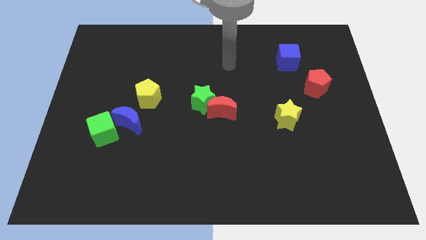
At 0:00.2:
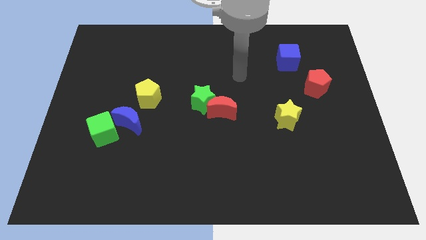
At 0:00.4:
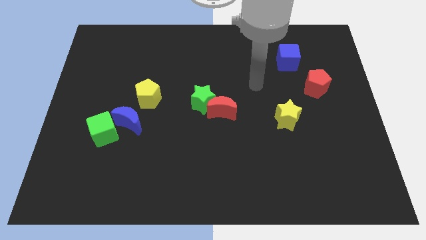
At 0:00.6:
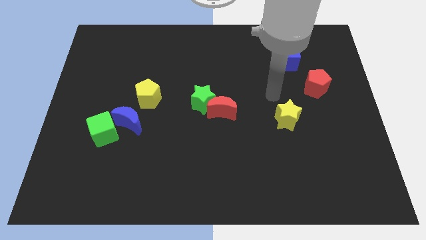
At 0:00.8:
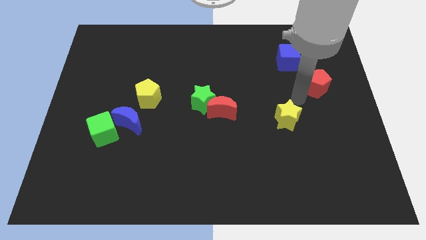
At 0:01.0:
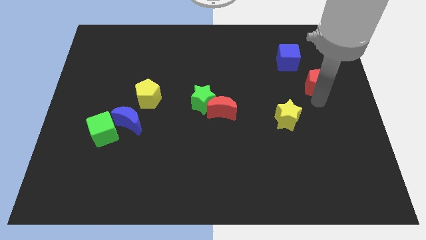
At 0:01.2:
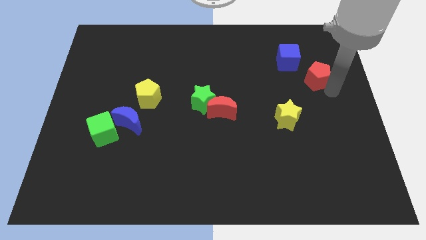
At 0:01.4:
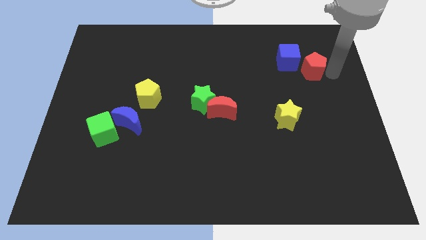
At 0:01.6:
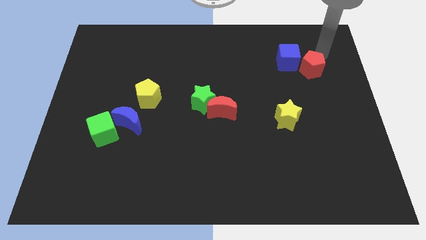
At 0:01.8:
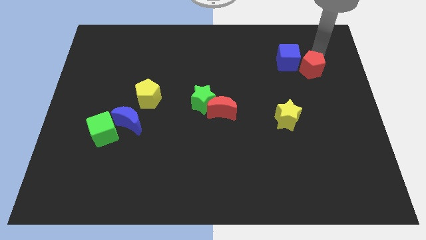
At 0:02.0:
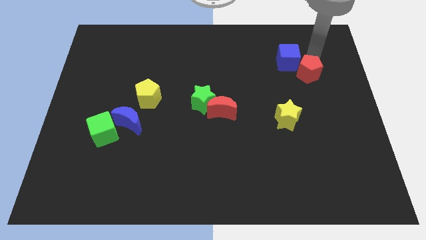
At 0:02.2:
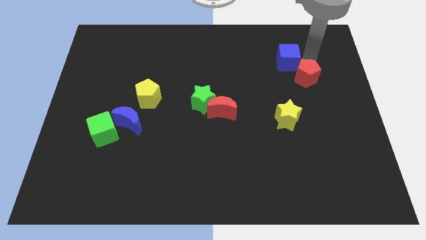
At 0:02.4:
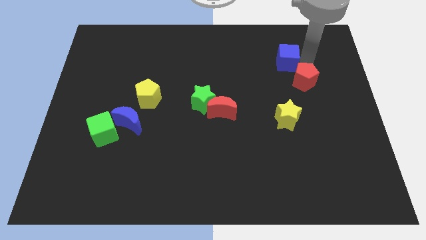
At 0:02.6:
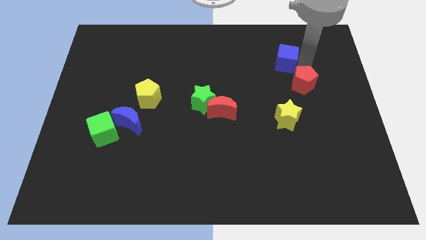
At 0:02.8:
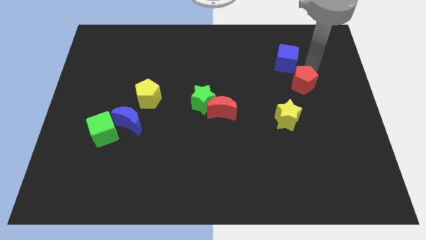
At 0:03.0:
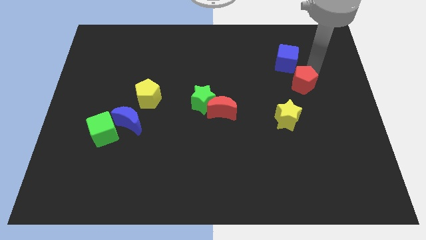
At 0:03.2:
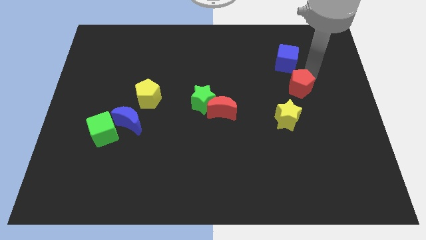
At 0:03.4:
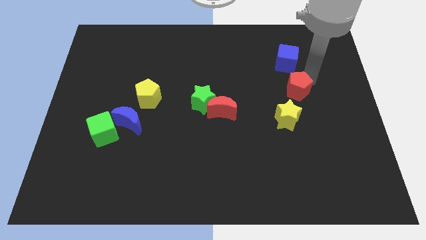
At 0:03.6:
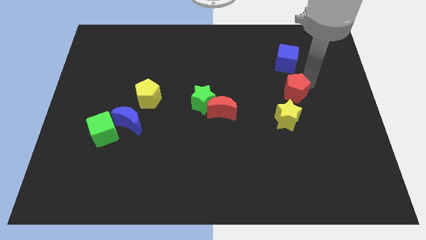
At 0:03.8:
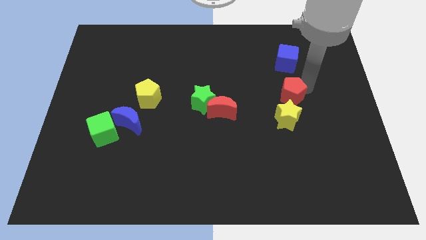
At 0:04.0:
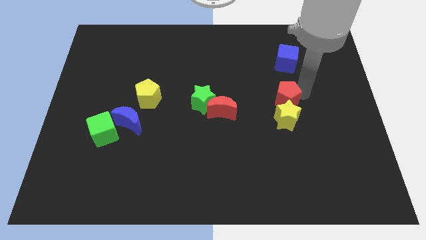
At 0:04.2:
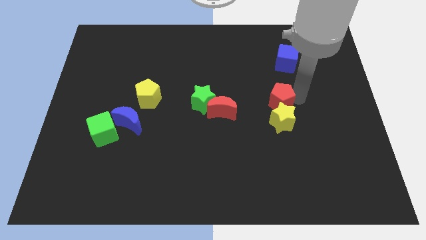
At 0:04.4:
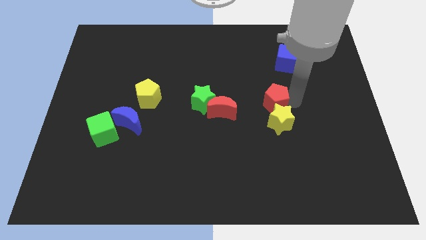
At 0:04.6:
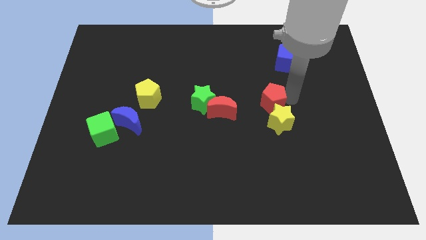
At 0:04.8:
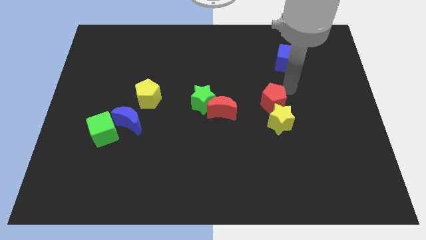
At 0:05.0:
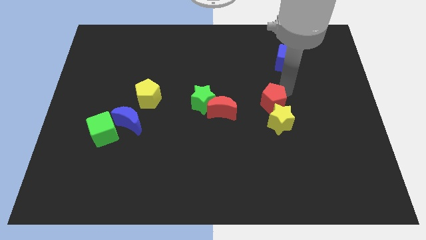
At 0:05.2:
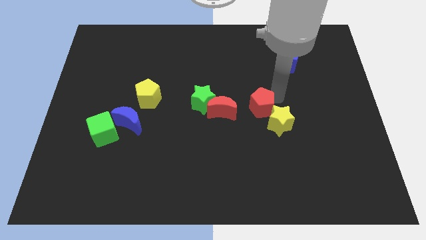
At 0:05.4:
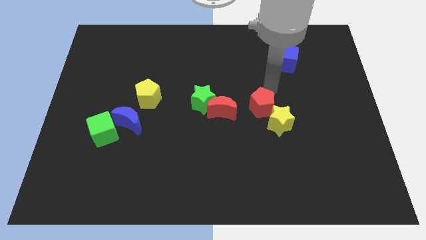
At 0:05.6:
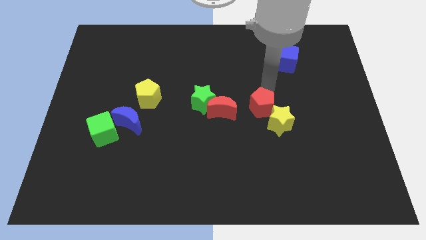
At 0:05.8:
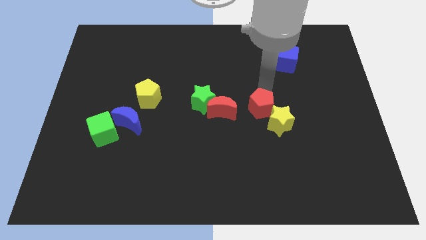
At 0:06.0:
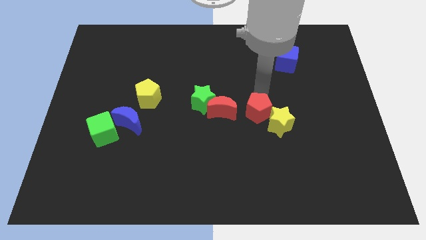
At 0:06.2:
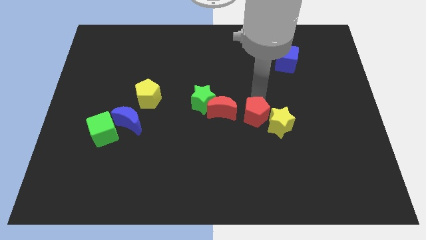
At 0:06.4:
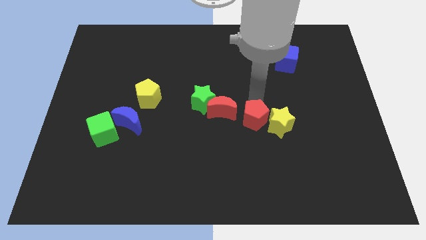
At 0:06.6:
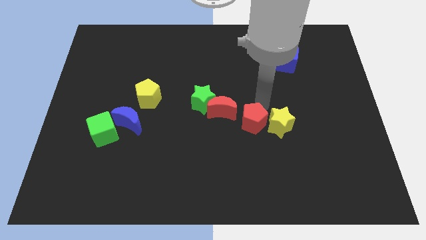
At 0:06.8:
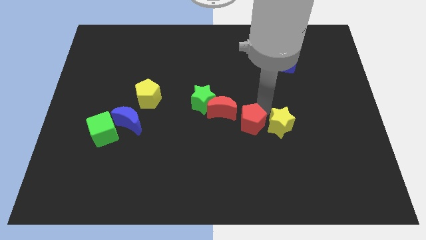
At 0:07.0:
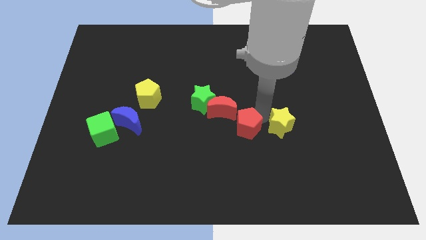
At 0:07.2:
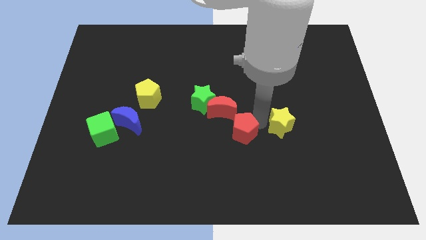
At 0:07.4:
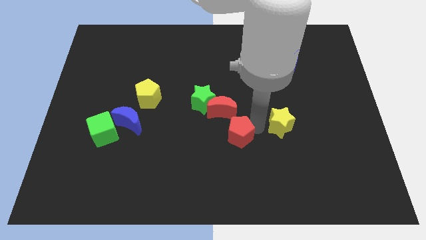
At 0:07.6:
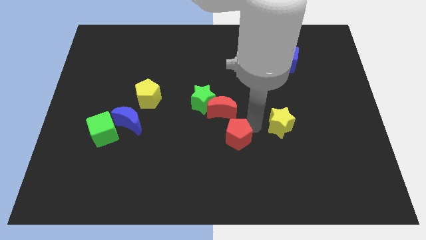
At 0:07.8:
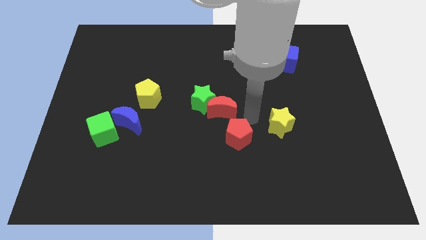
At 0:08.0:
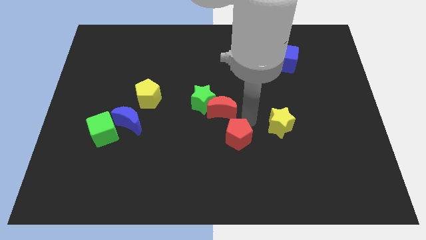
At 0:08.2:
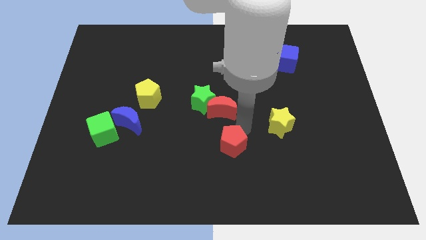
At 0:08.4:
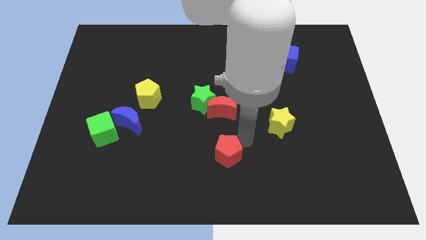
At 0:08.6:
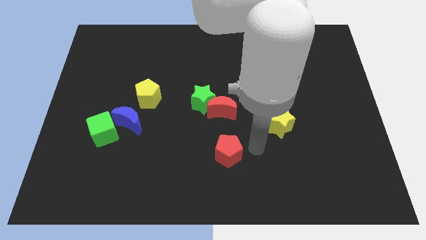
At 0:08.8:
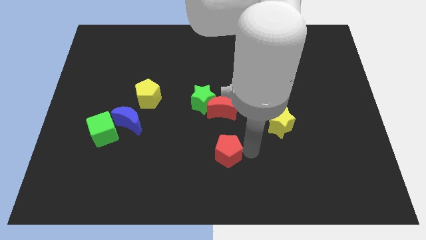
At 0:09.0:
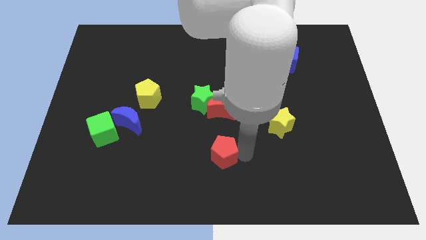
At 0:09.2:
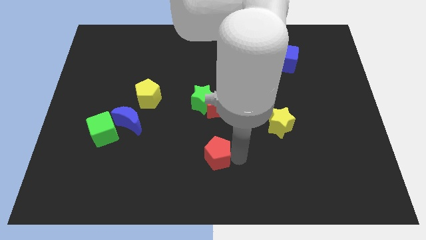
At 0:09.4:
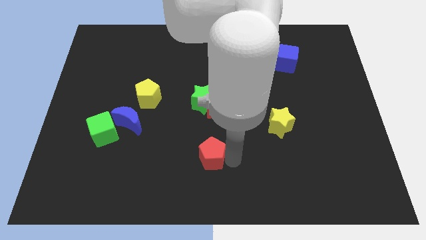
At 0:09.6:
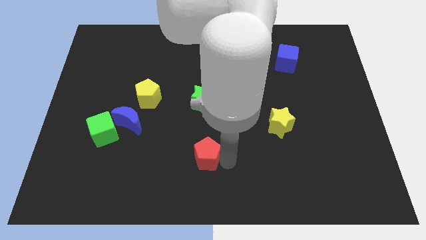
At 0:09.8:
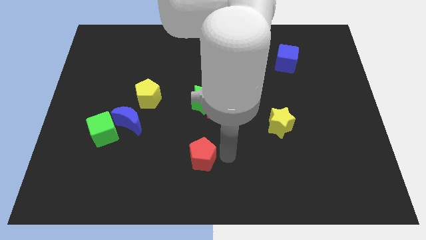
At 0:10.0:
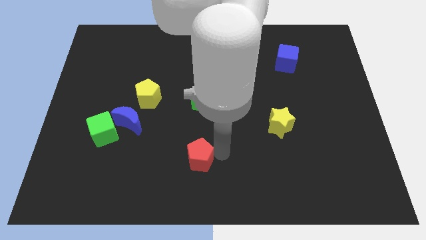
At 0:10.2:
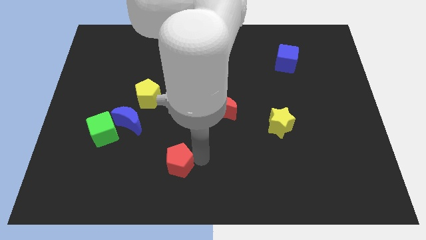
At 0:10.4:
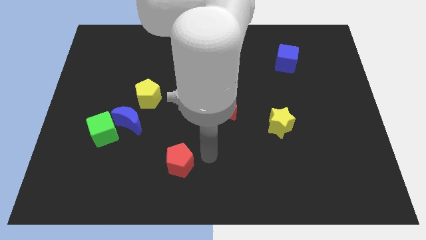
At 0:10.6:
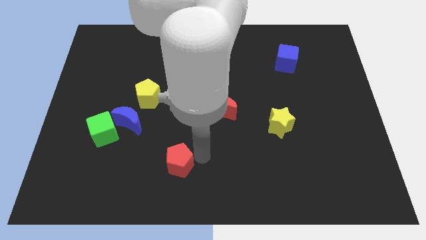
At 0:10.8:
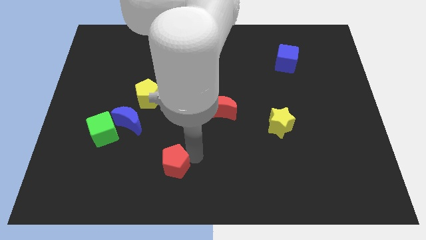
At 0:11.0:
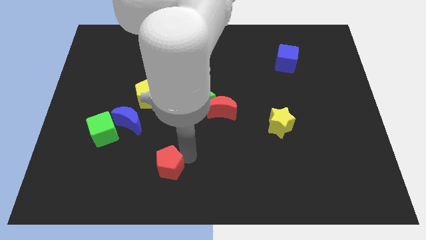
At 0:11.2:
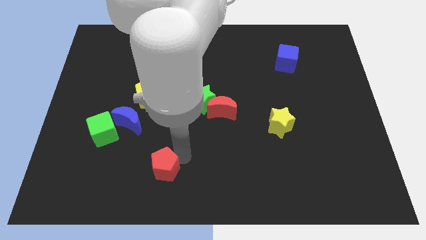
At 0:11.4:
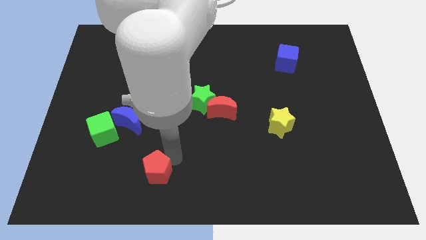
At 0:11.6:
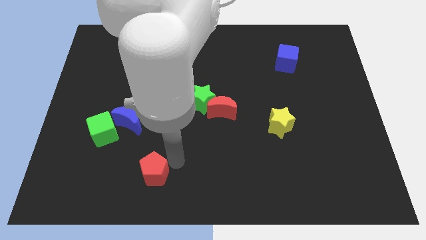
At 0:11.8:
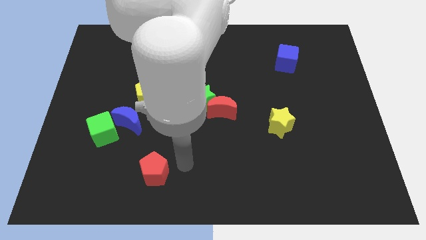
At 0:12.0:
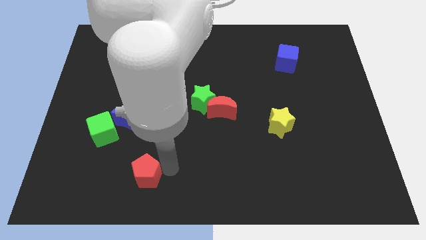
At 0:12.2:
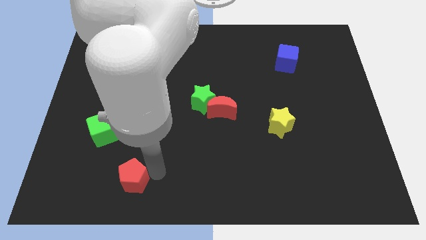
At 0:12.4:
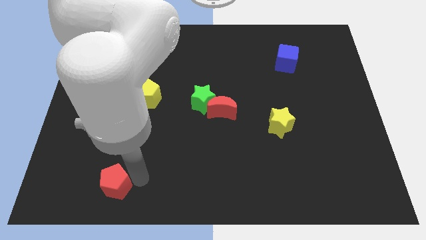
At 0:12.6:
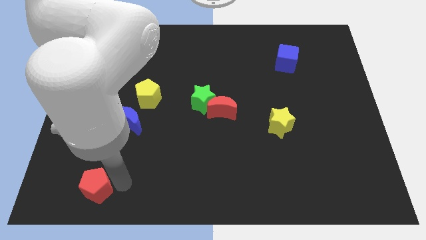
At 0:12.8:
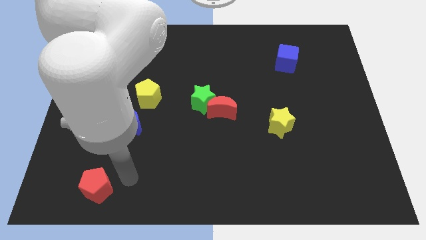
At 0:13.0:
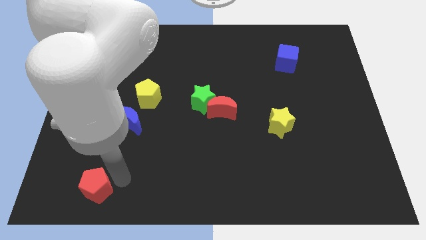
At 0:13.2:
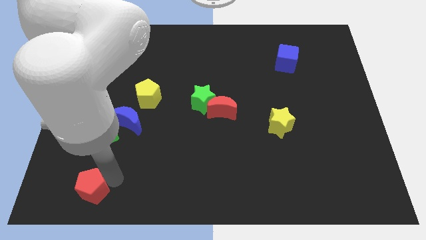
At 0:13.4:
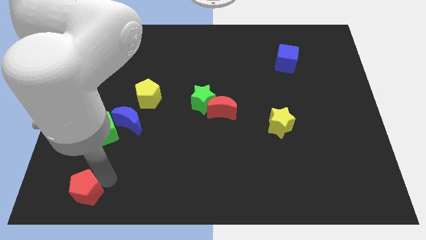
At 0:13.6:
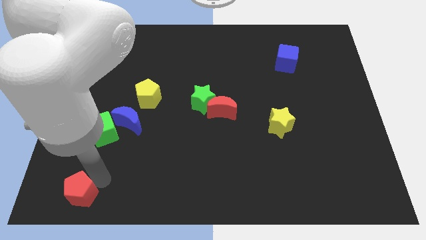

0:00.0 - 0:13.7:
move the red pentagon to the bottom left of the board

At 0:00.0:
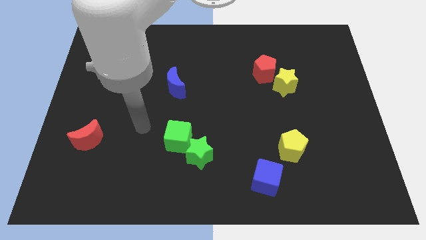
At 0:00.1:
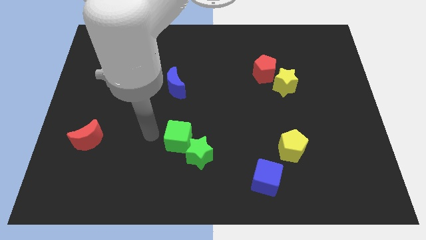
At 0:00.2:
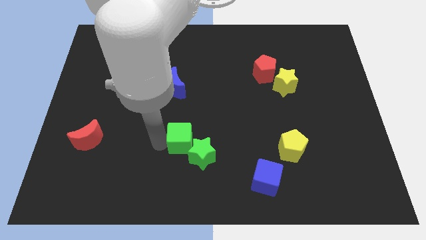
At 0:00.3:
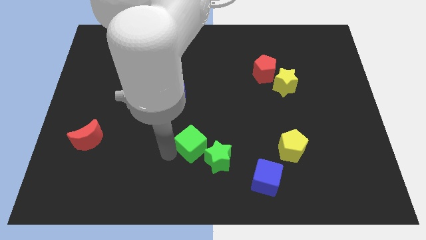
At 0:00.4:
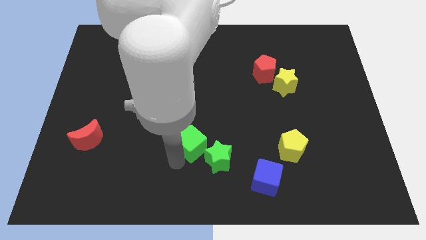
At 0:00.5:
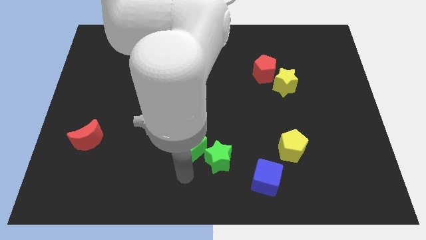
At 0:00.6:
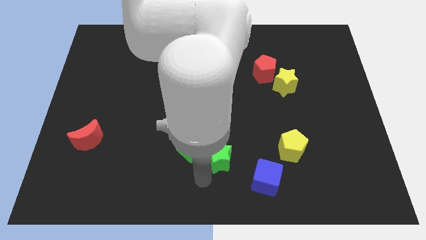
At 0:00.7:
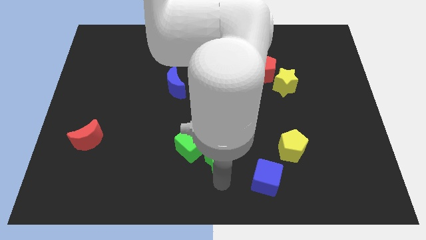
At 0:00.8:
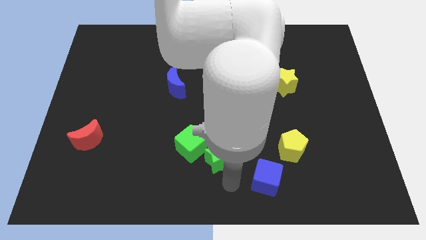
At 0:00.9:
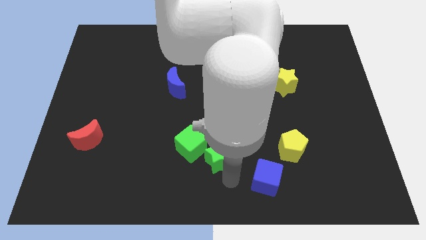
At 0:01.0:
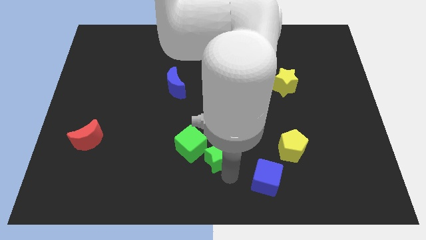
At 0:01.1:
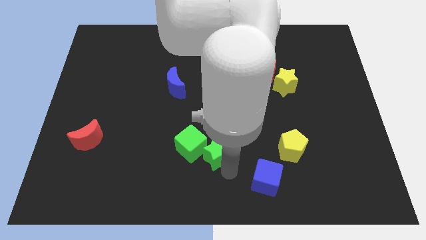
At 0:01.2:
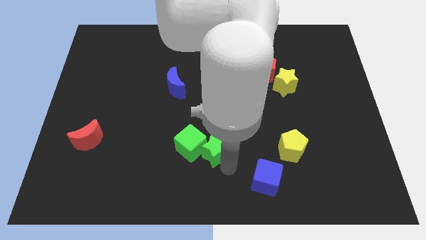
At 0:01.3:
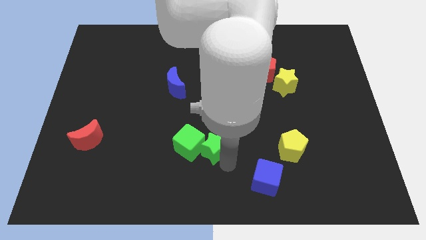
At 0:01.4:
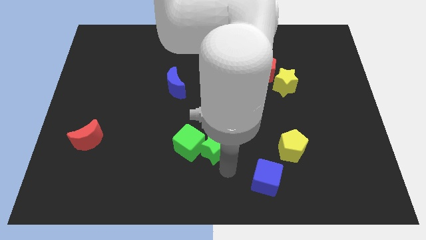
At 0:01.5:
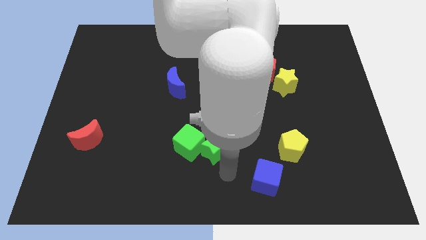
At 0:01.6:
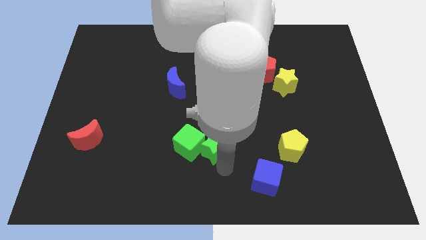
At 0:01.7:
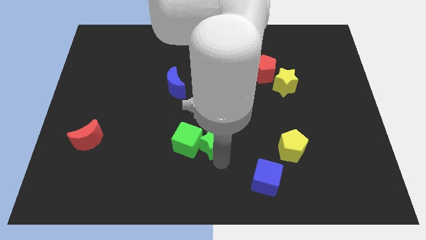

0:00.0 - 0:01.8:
put the green star to the middle of the board
